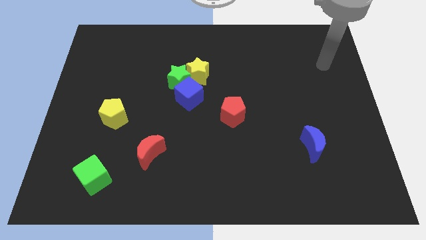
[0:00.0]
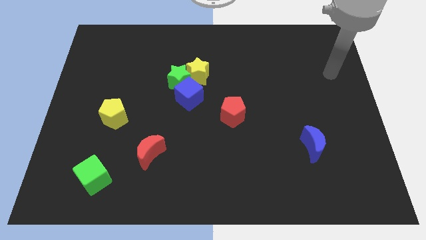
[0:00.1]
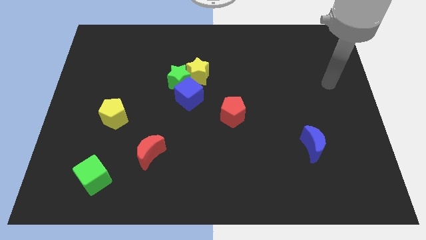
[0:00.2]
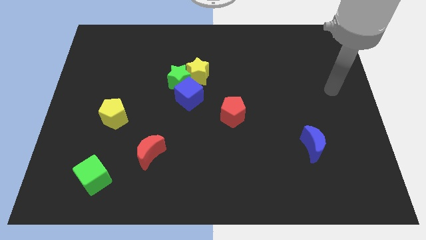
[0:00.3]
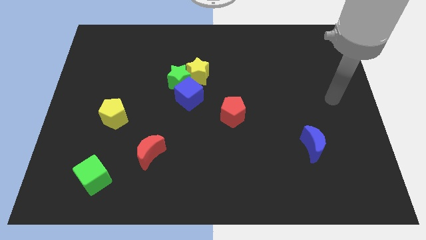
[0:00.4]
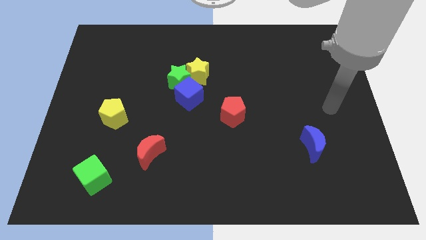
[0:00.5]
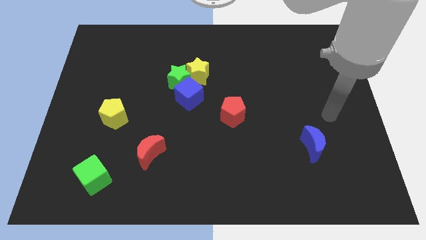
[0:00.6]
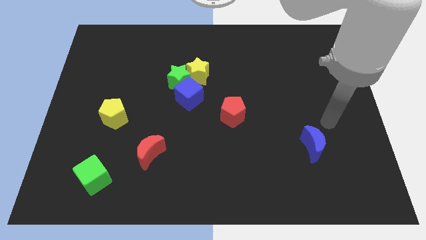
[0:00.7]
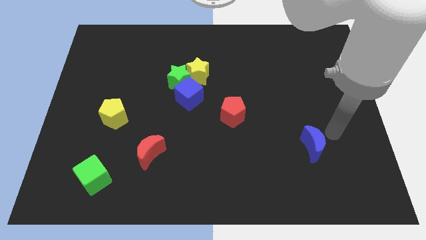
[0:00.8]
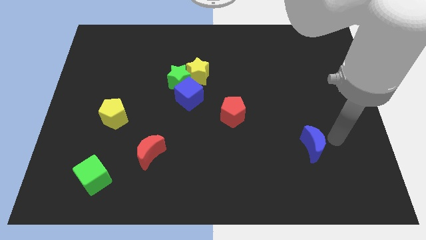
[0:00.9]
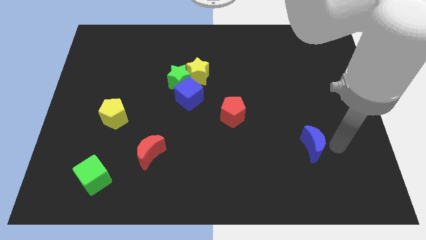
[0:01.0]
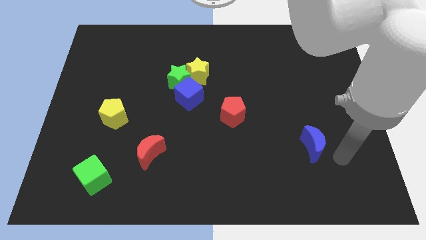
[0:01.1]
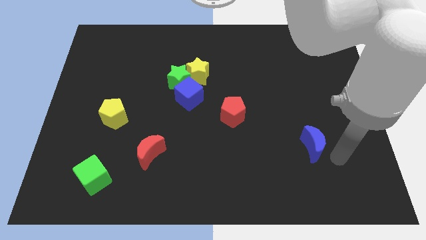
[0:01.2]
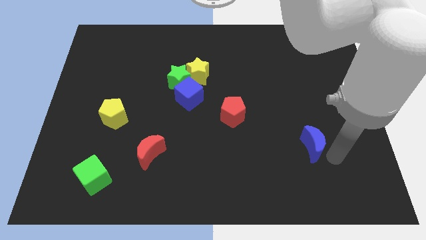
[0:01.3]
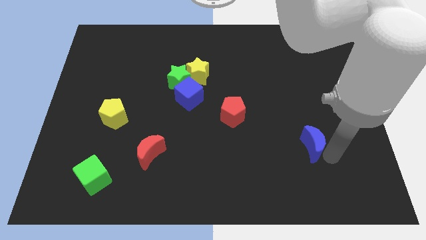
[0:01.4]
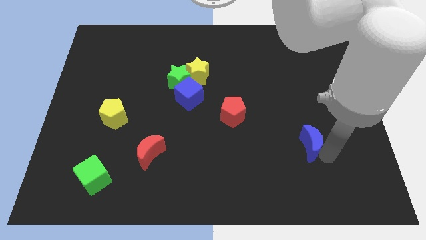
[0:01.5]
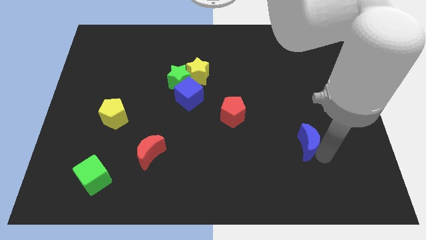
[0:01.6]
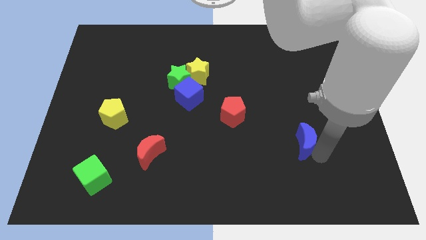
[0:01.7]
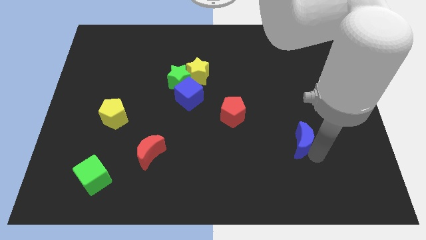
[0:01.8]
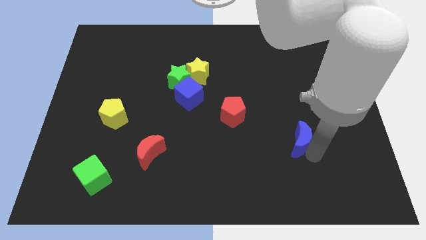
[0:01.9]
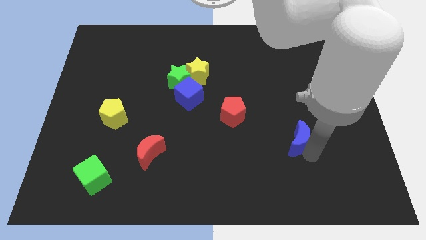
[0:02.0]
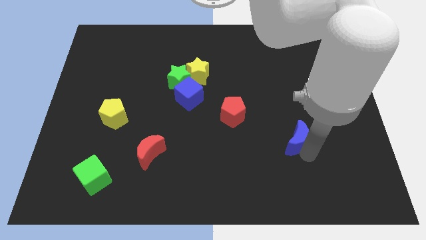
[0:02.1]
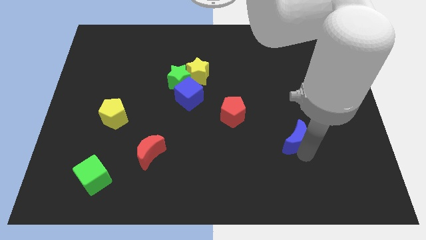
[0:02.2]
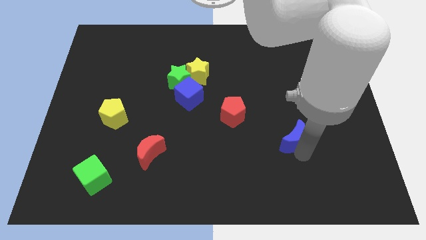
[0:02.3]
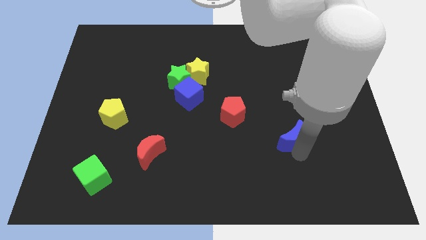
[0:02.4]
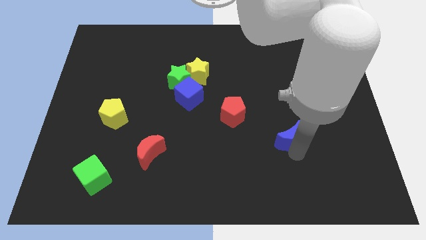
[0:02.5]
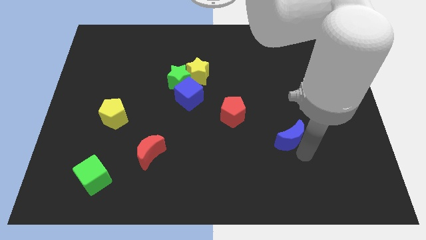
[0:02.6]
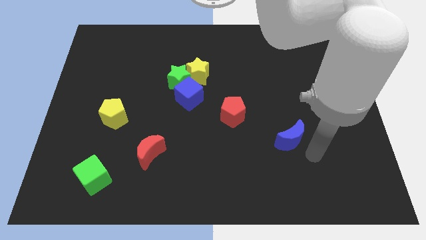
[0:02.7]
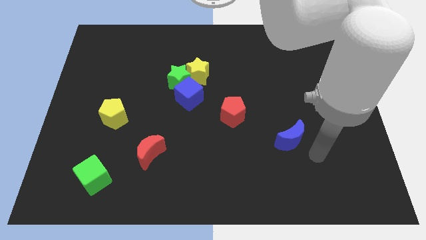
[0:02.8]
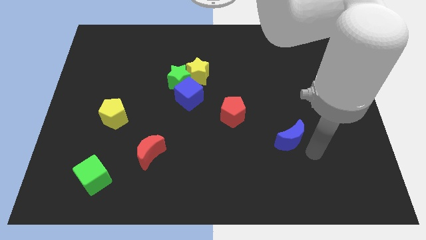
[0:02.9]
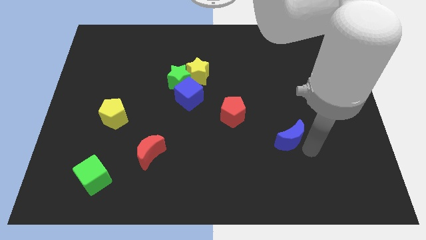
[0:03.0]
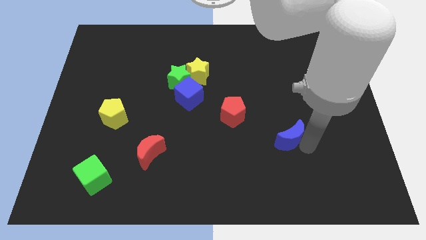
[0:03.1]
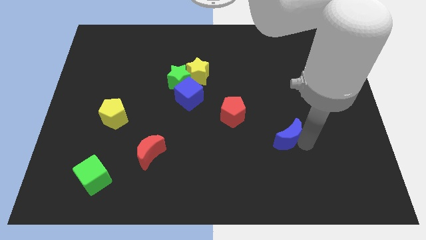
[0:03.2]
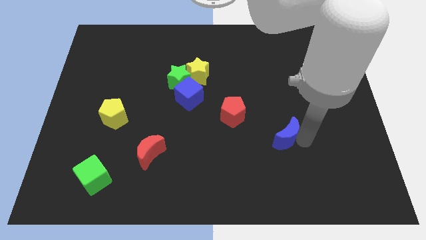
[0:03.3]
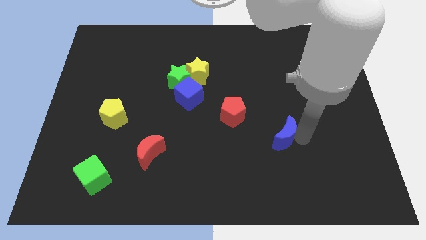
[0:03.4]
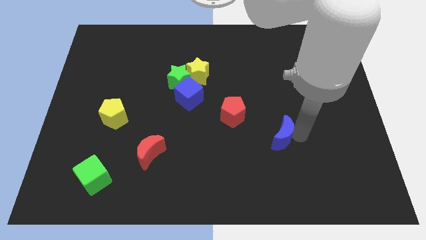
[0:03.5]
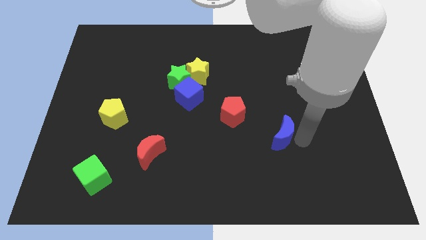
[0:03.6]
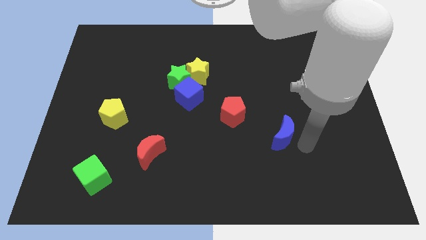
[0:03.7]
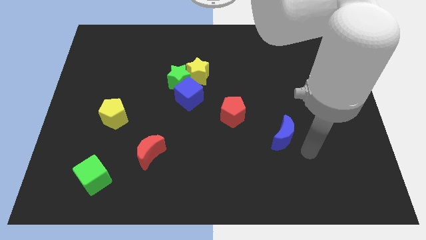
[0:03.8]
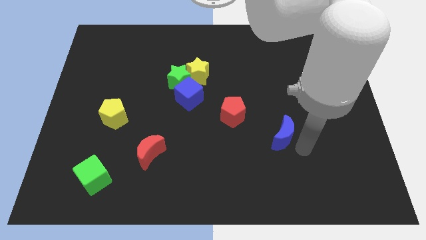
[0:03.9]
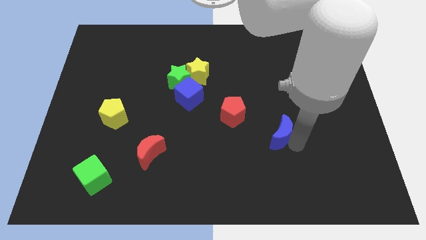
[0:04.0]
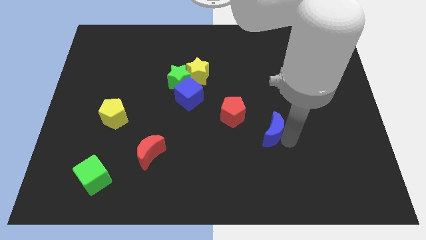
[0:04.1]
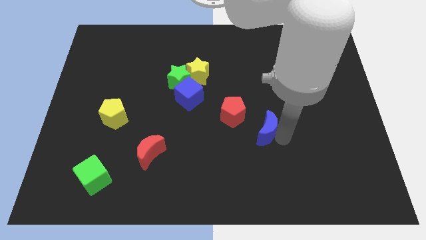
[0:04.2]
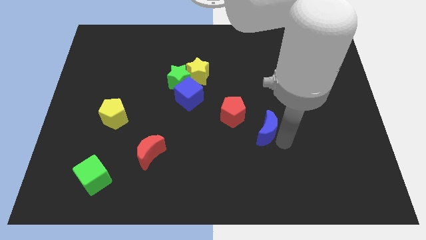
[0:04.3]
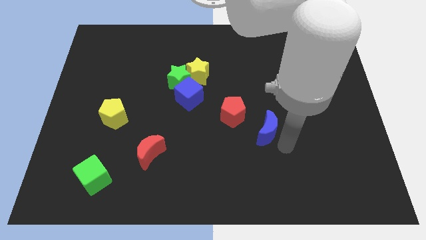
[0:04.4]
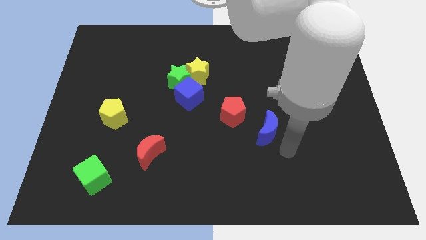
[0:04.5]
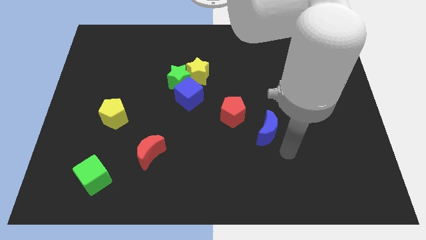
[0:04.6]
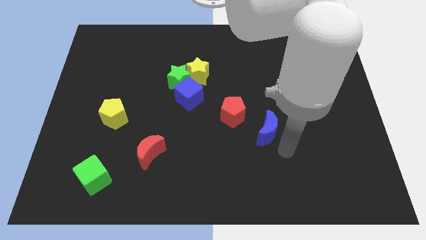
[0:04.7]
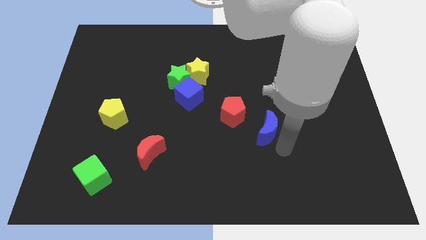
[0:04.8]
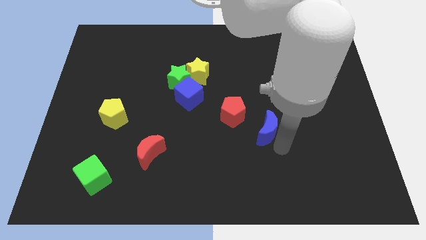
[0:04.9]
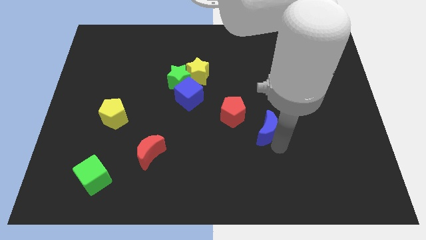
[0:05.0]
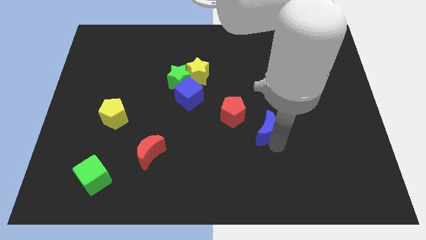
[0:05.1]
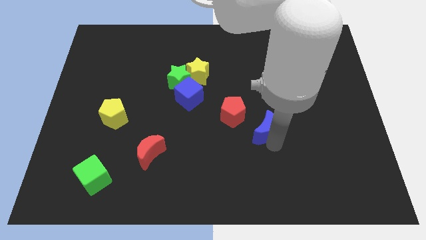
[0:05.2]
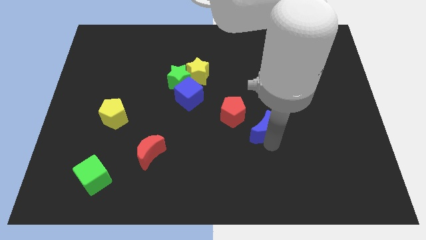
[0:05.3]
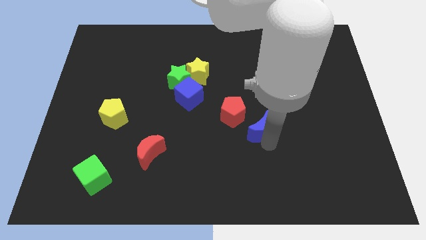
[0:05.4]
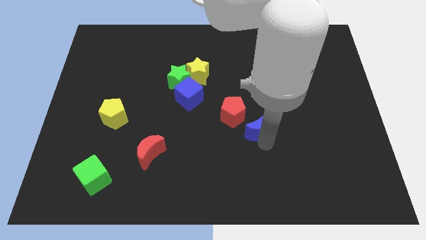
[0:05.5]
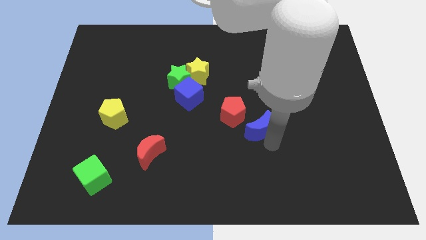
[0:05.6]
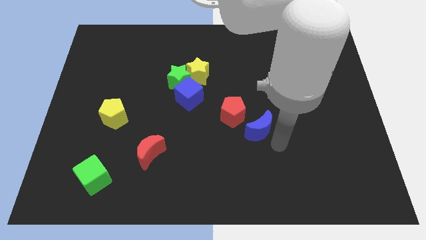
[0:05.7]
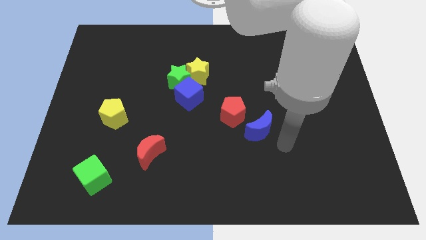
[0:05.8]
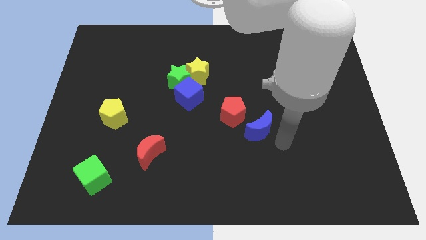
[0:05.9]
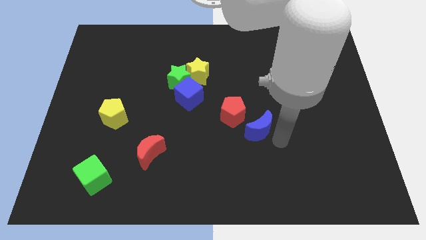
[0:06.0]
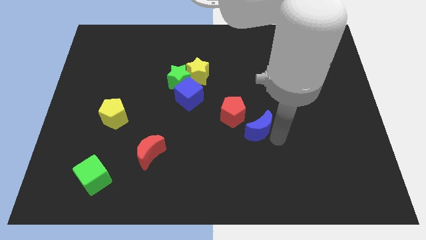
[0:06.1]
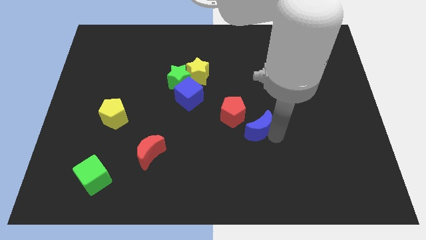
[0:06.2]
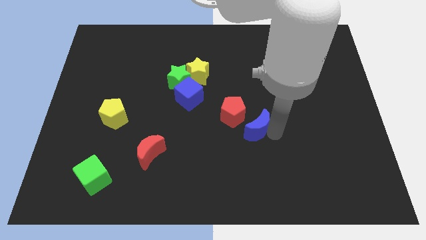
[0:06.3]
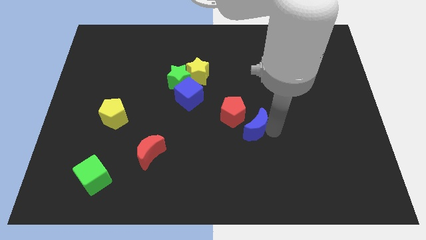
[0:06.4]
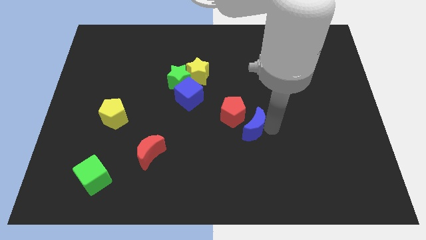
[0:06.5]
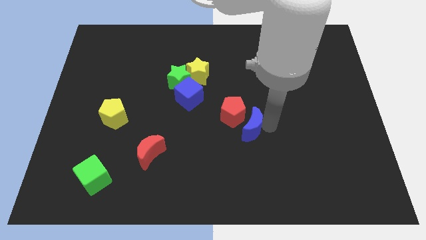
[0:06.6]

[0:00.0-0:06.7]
push the blue moon close to the red pentagon

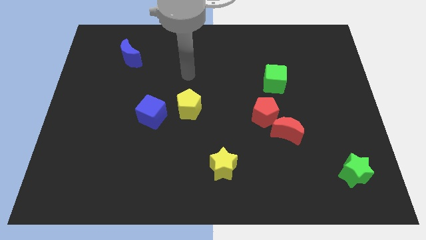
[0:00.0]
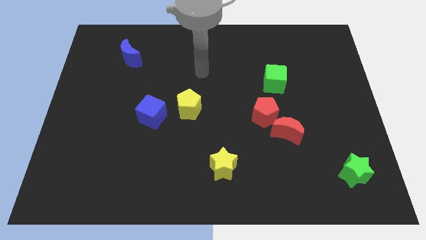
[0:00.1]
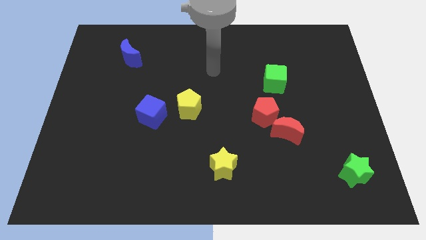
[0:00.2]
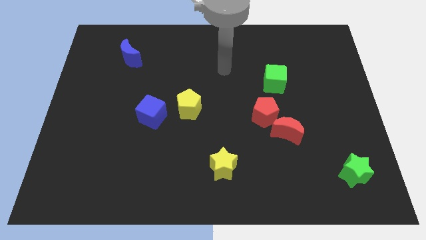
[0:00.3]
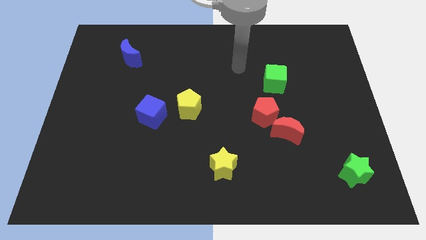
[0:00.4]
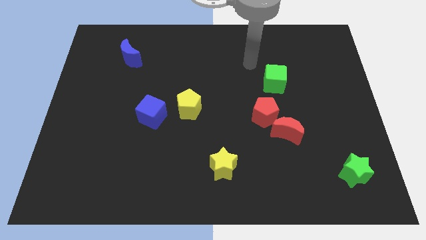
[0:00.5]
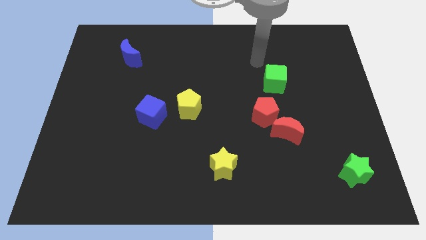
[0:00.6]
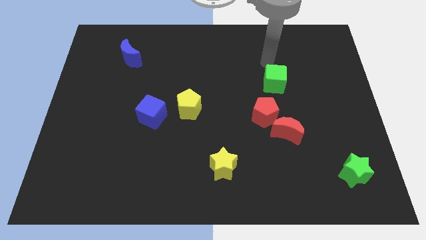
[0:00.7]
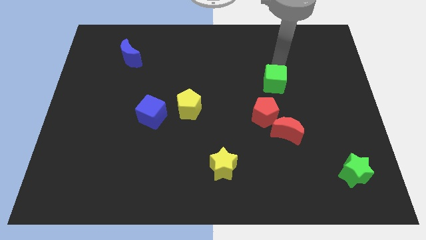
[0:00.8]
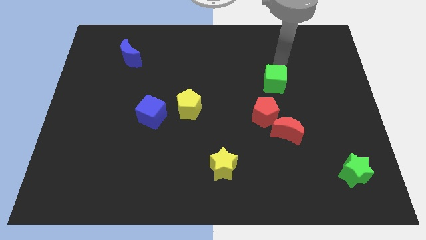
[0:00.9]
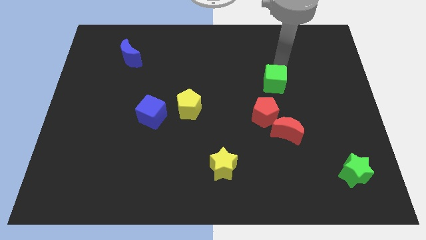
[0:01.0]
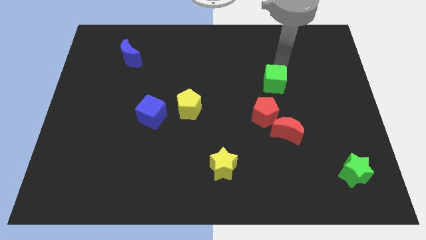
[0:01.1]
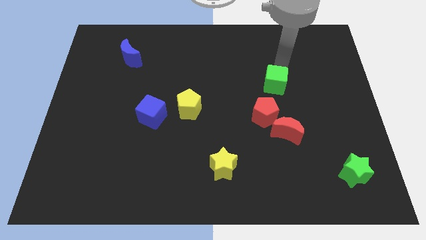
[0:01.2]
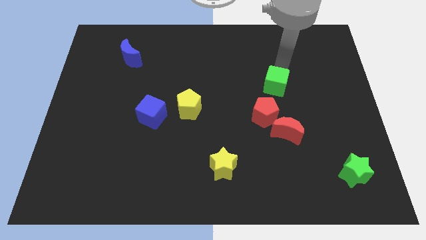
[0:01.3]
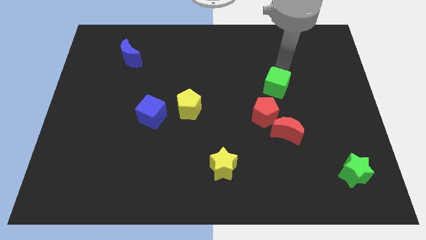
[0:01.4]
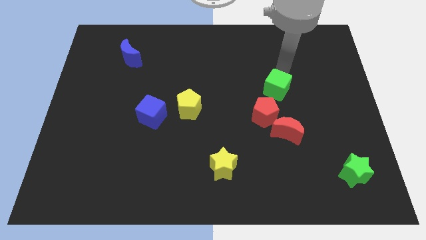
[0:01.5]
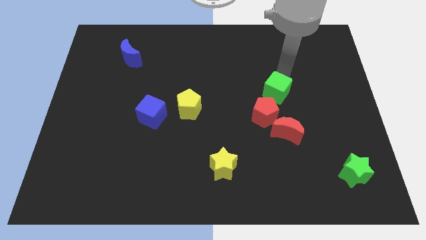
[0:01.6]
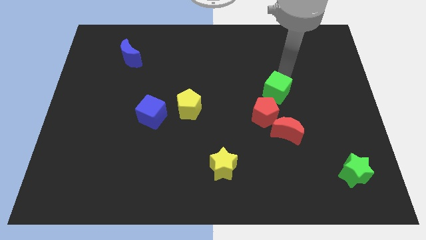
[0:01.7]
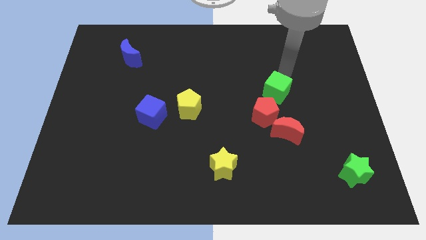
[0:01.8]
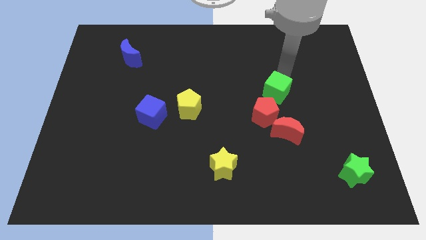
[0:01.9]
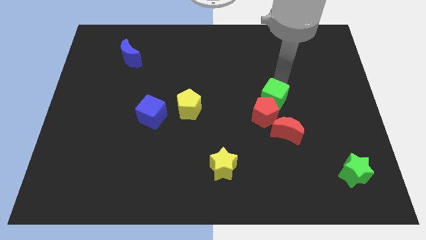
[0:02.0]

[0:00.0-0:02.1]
put the green cube towards the red pentagon
